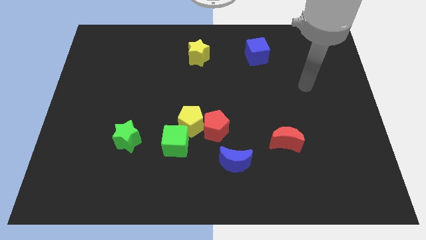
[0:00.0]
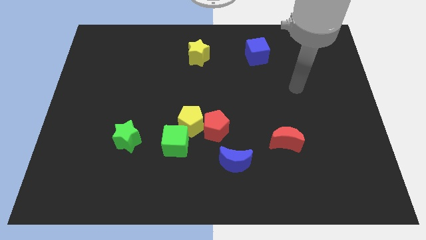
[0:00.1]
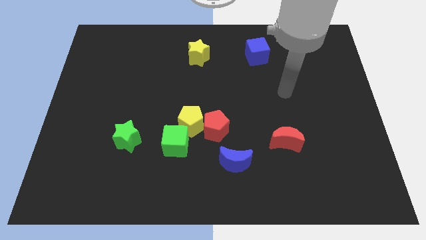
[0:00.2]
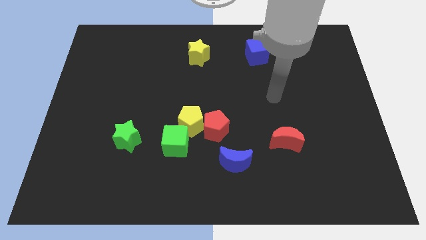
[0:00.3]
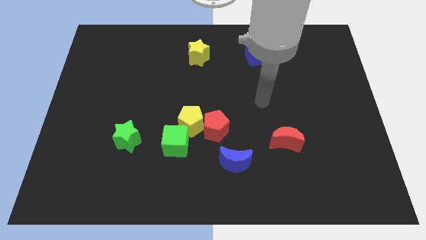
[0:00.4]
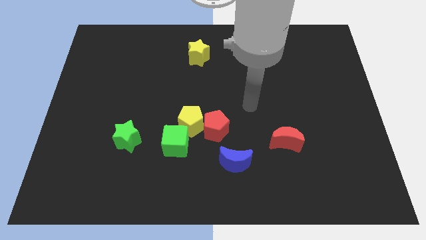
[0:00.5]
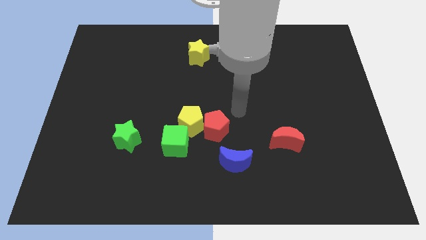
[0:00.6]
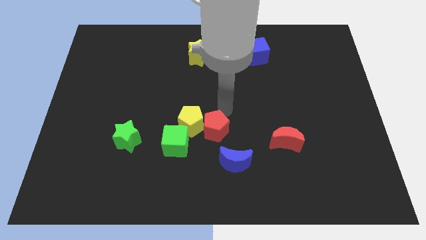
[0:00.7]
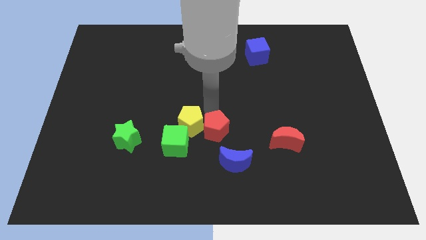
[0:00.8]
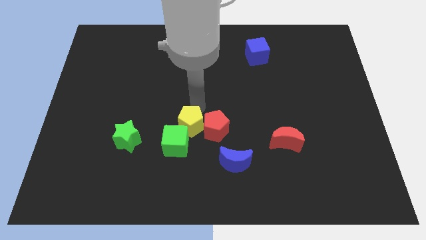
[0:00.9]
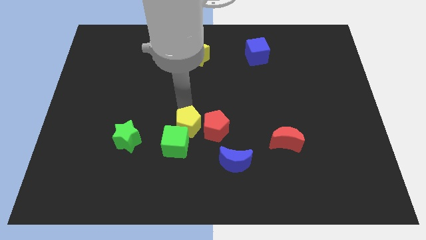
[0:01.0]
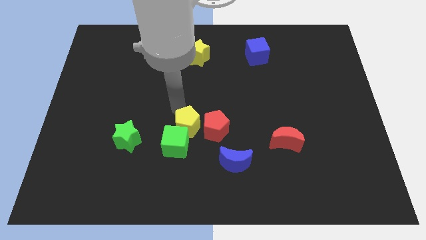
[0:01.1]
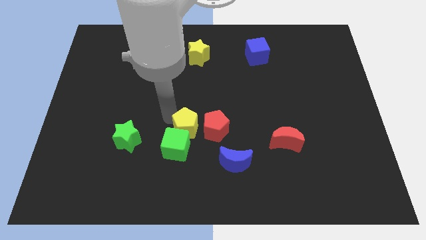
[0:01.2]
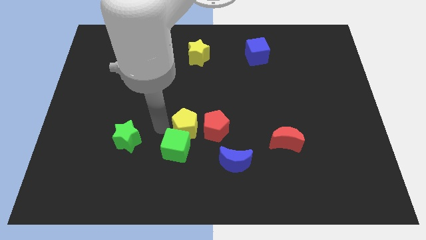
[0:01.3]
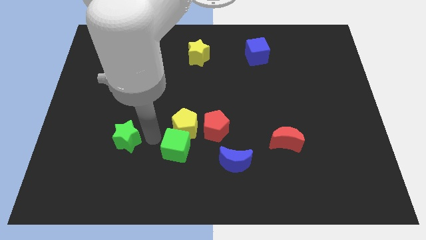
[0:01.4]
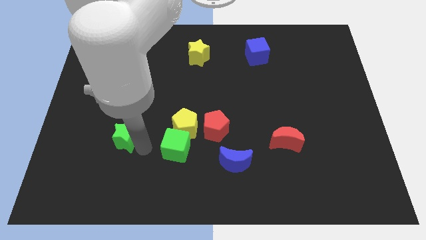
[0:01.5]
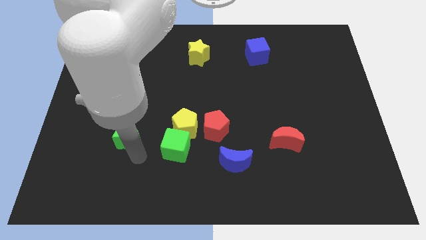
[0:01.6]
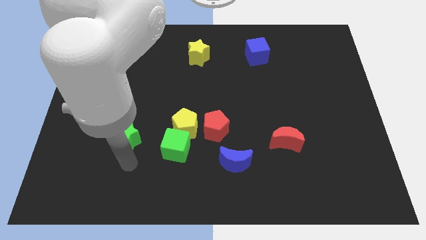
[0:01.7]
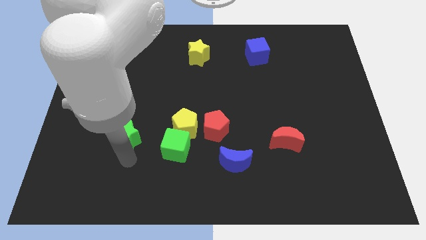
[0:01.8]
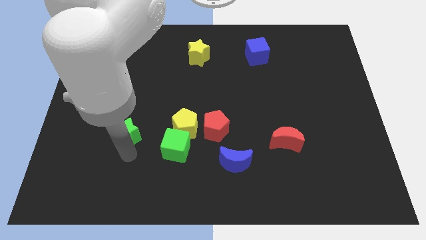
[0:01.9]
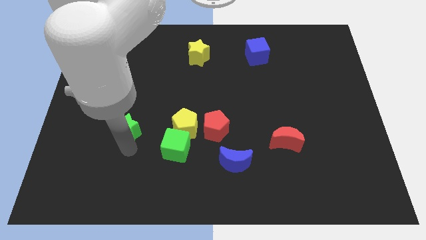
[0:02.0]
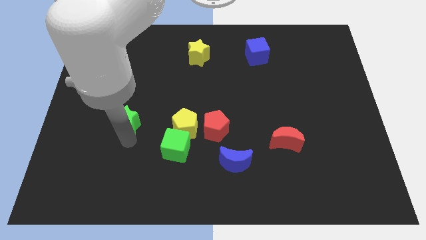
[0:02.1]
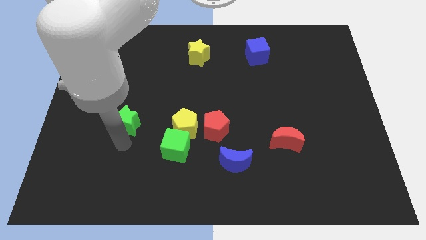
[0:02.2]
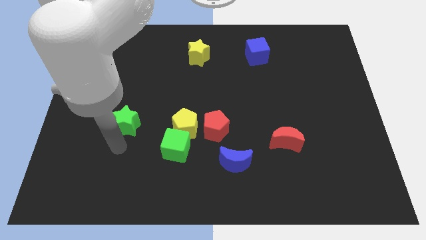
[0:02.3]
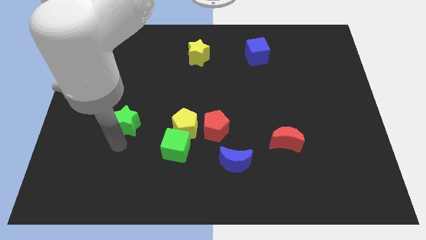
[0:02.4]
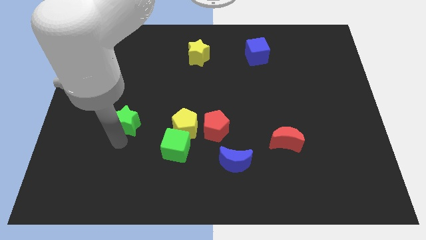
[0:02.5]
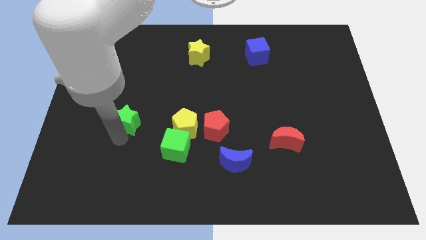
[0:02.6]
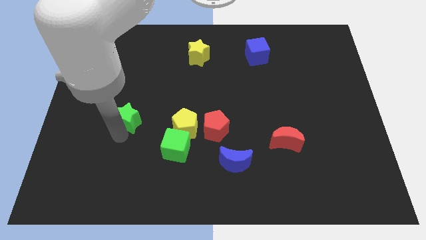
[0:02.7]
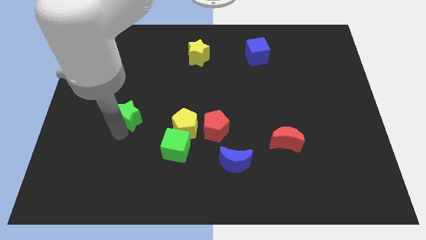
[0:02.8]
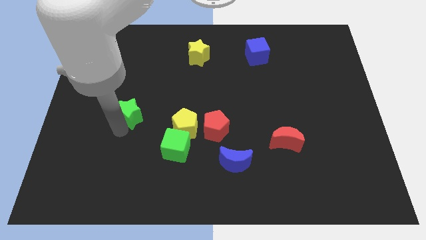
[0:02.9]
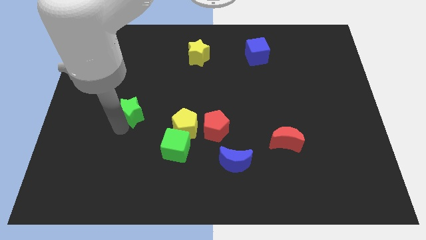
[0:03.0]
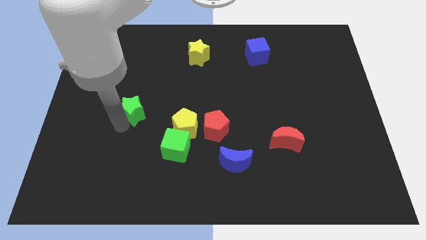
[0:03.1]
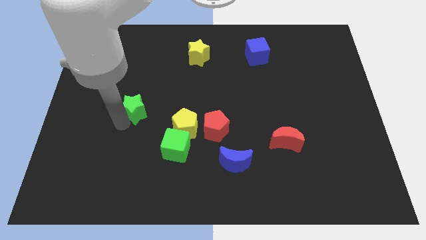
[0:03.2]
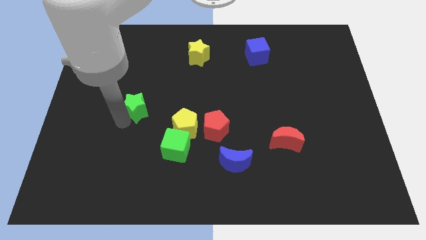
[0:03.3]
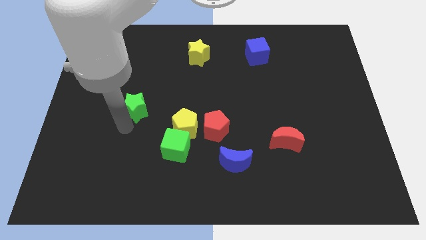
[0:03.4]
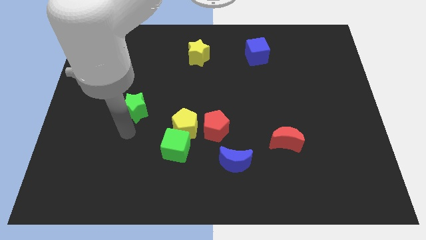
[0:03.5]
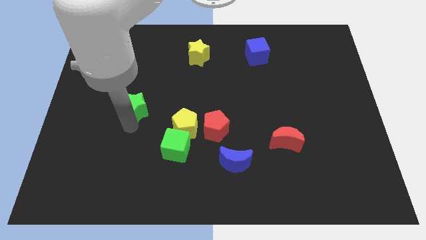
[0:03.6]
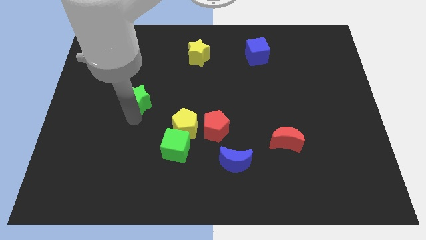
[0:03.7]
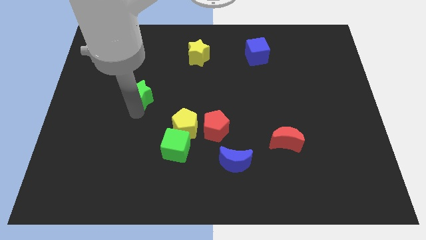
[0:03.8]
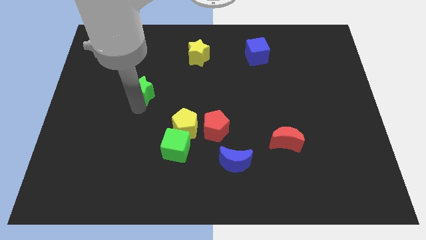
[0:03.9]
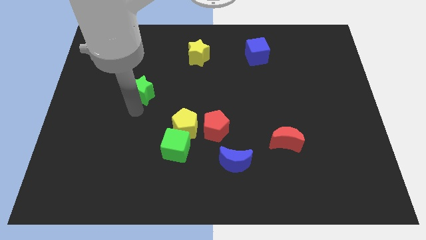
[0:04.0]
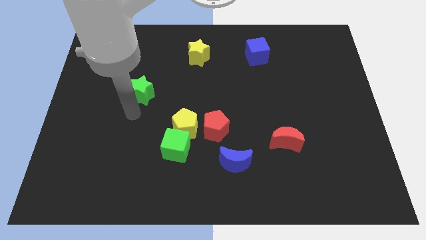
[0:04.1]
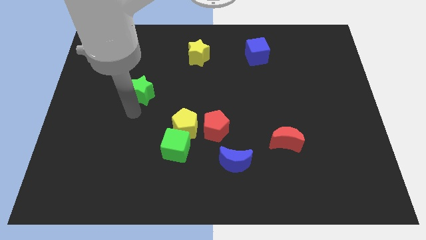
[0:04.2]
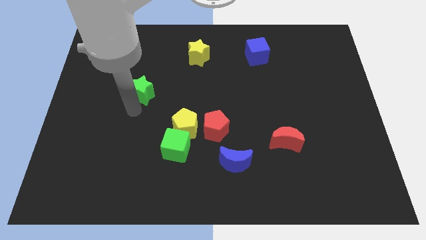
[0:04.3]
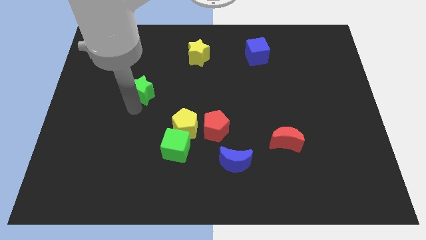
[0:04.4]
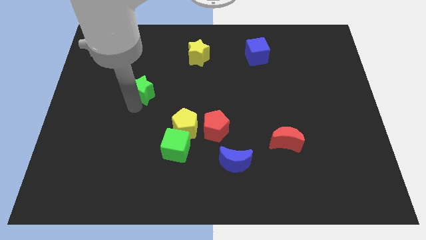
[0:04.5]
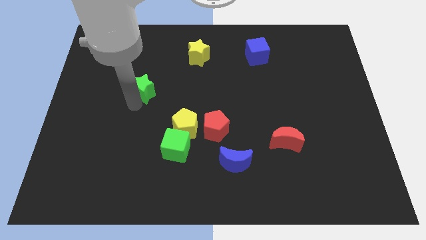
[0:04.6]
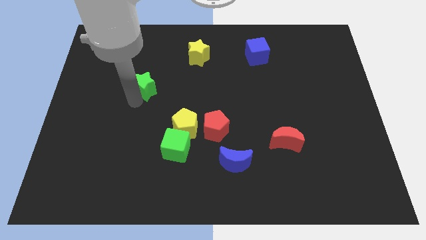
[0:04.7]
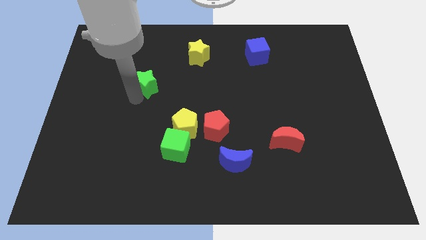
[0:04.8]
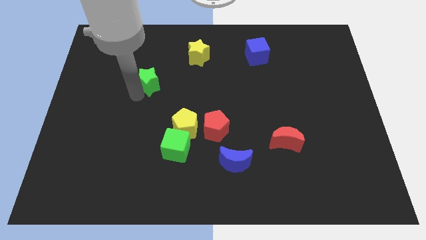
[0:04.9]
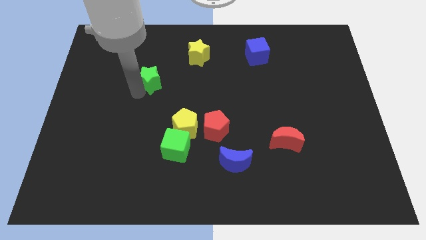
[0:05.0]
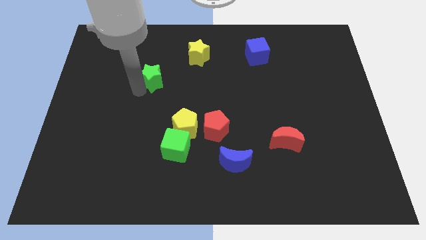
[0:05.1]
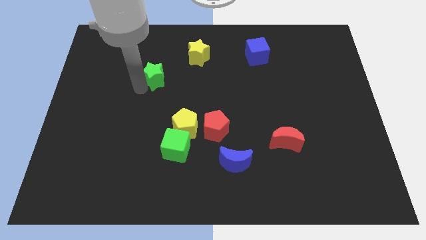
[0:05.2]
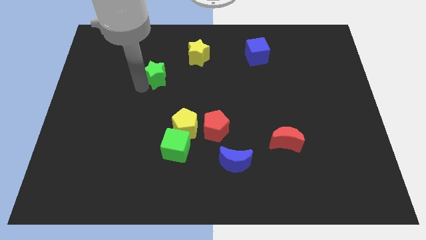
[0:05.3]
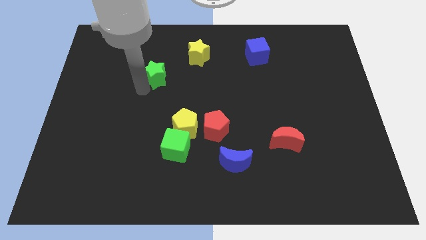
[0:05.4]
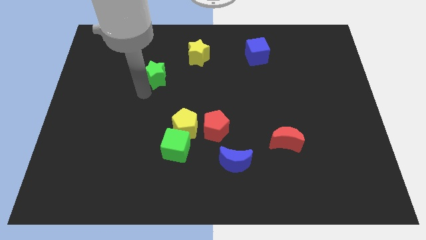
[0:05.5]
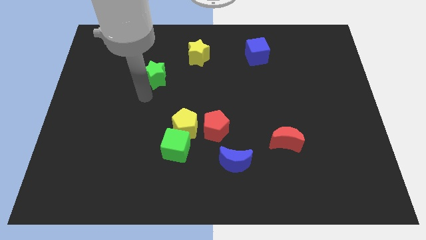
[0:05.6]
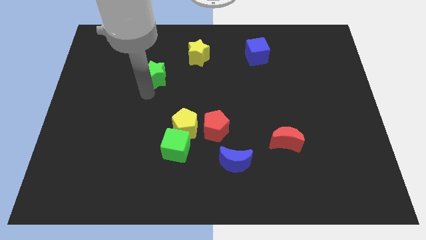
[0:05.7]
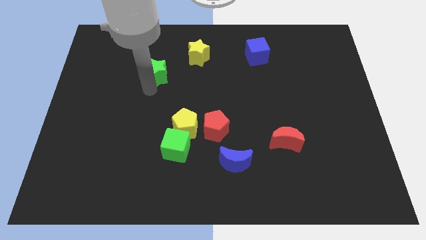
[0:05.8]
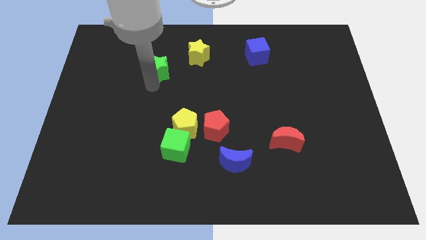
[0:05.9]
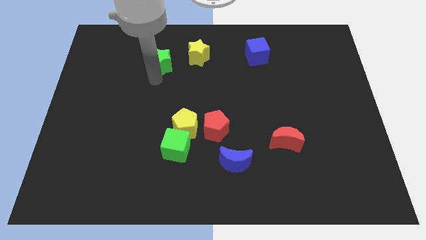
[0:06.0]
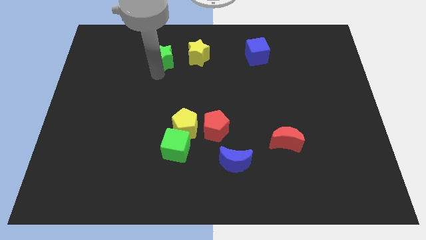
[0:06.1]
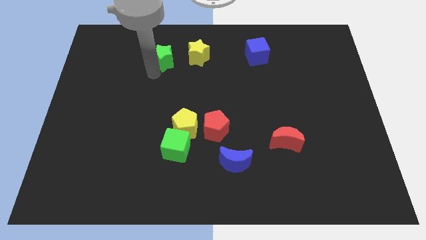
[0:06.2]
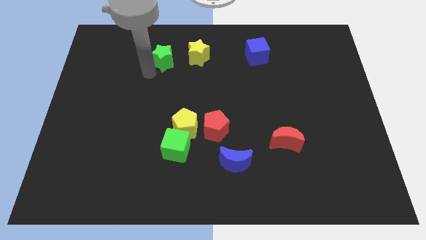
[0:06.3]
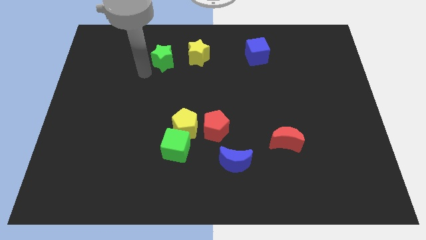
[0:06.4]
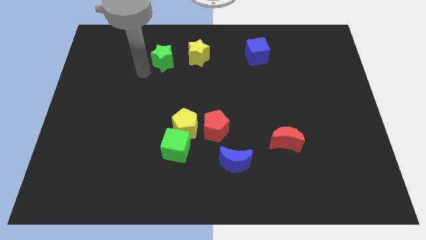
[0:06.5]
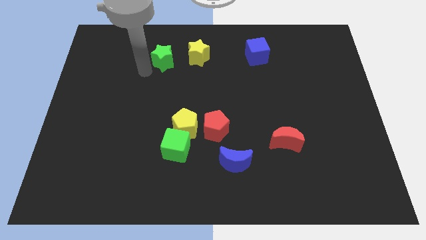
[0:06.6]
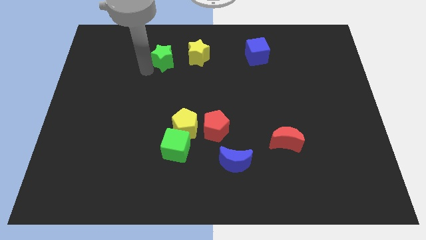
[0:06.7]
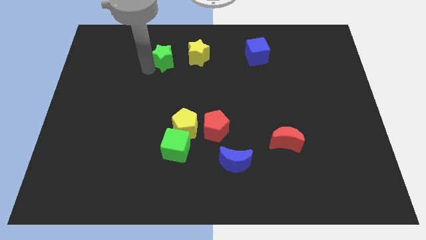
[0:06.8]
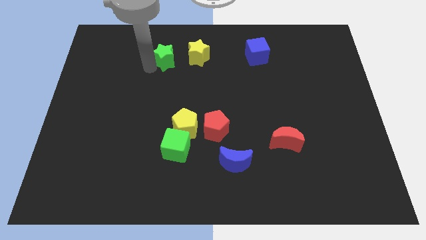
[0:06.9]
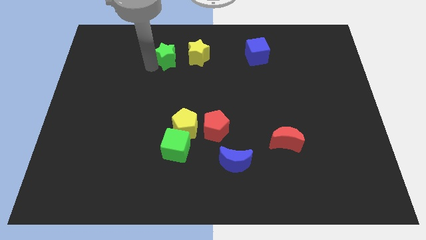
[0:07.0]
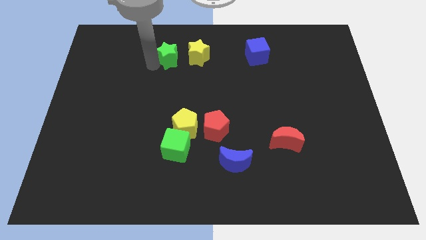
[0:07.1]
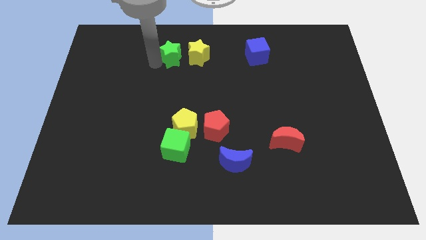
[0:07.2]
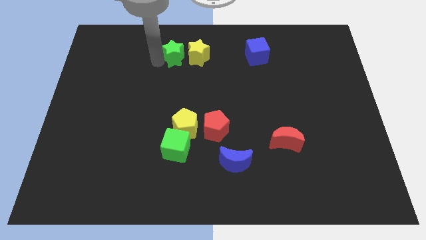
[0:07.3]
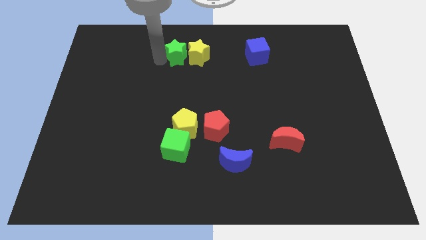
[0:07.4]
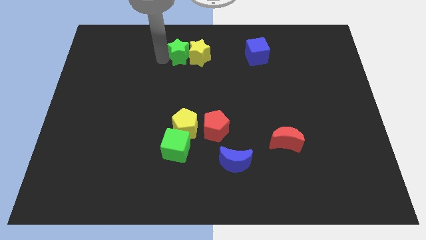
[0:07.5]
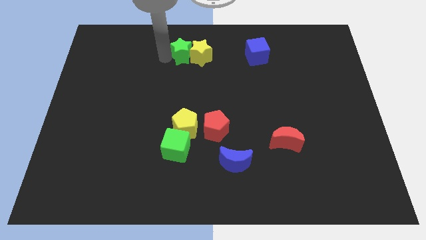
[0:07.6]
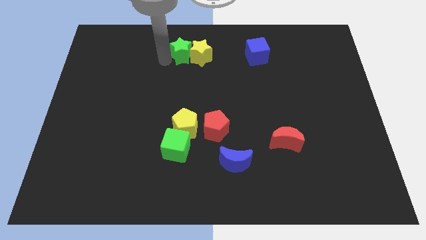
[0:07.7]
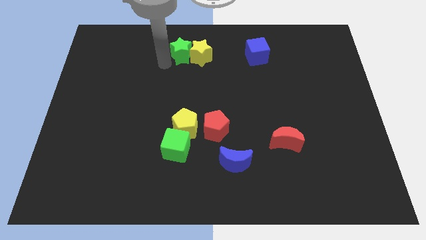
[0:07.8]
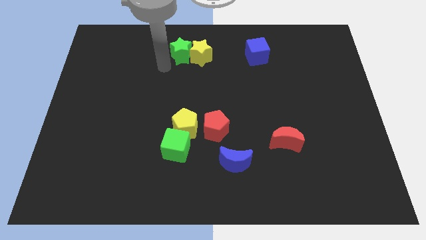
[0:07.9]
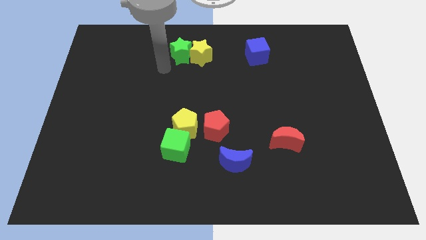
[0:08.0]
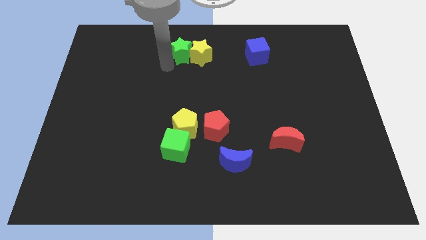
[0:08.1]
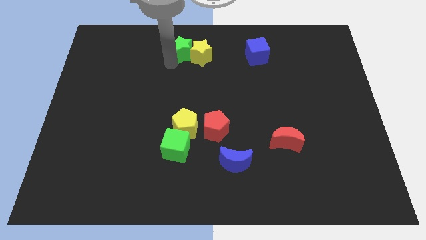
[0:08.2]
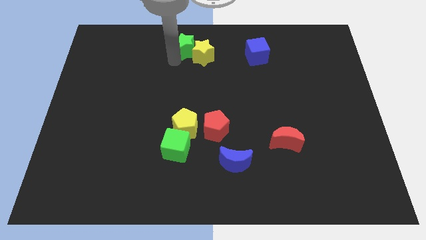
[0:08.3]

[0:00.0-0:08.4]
put the green star to the towards your base
